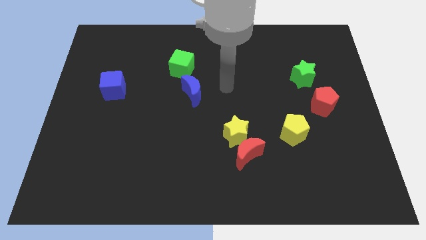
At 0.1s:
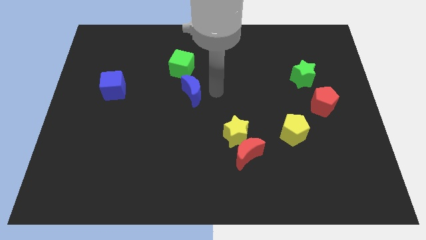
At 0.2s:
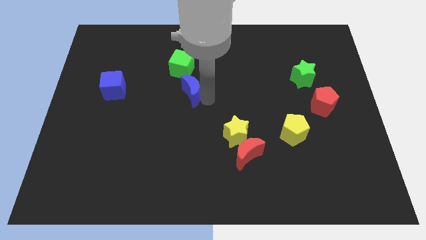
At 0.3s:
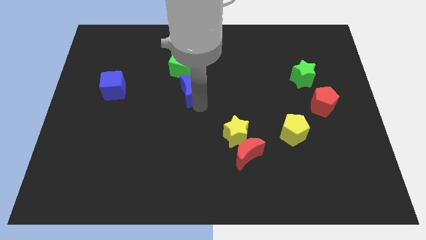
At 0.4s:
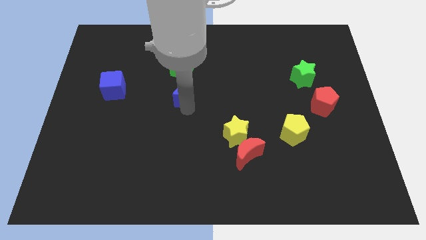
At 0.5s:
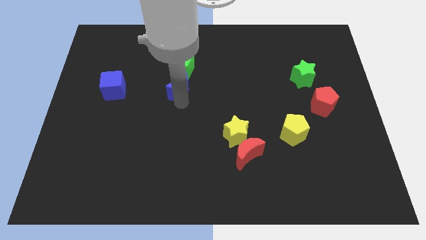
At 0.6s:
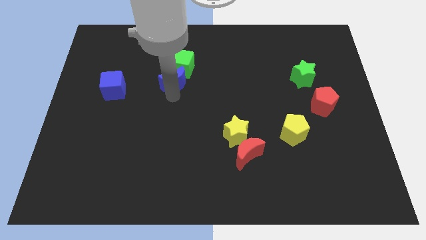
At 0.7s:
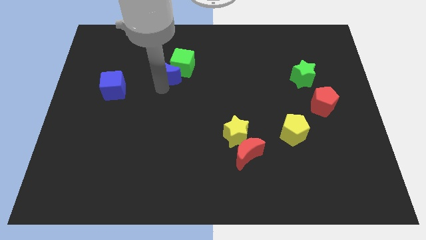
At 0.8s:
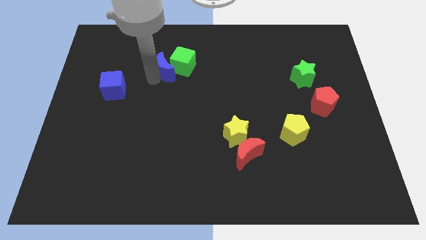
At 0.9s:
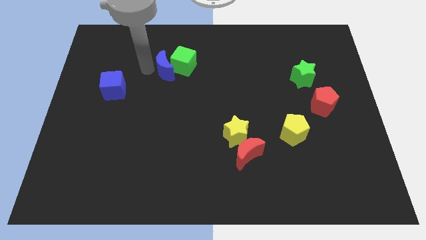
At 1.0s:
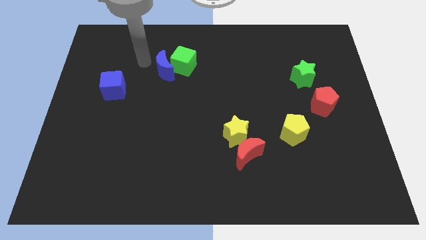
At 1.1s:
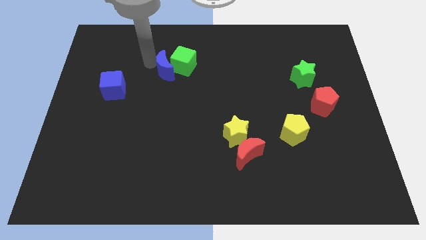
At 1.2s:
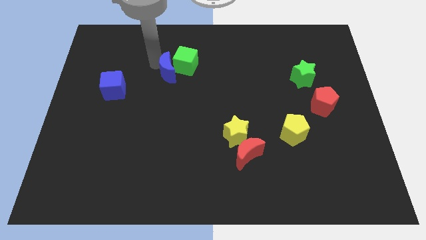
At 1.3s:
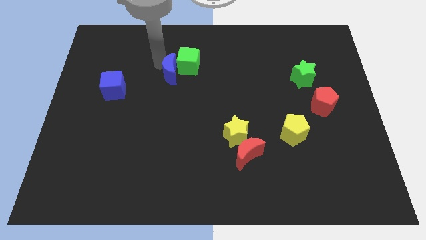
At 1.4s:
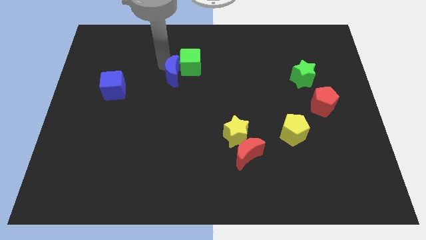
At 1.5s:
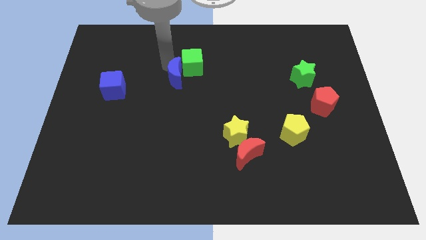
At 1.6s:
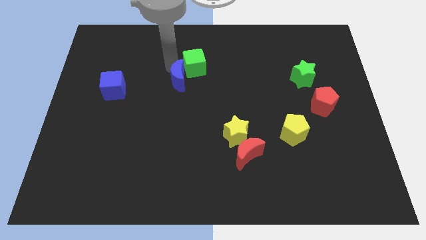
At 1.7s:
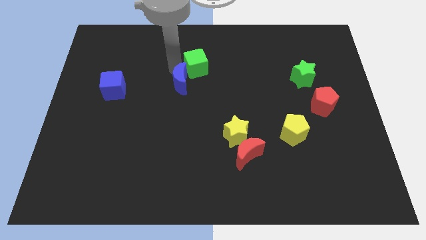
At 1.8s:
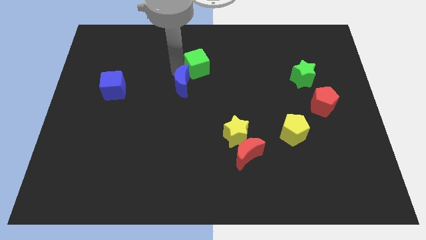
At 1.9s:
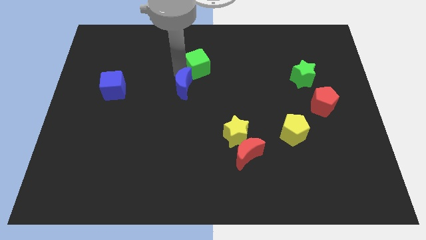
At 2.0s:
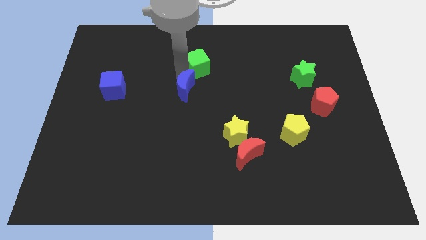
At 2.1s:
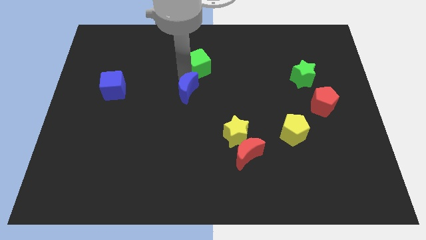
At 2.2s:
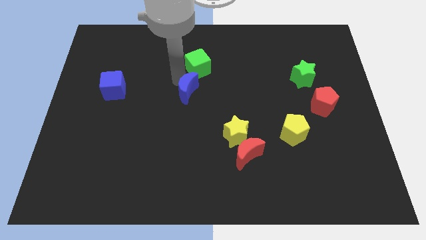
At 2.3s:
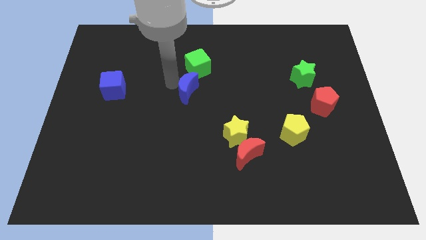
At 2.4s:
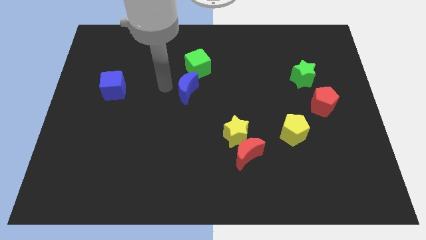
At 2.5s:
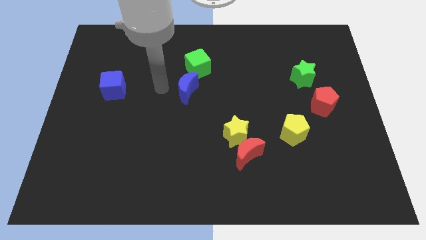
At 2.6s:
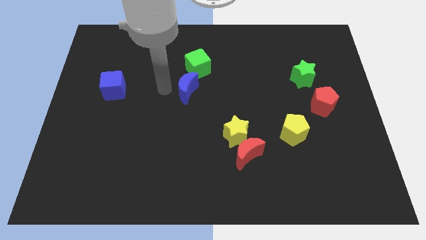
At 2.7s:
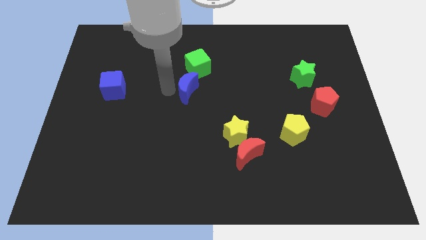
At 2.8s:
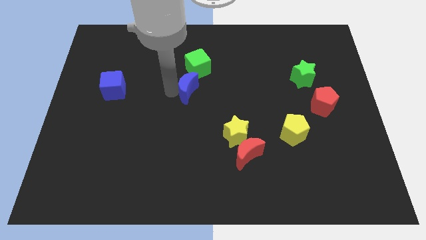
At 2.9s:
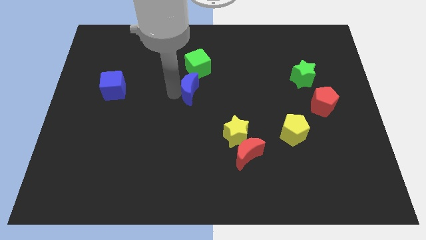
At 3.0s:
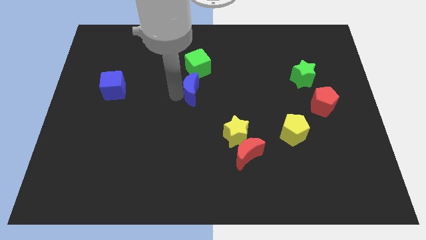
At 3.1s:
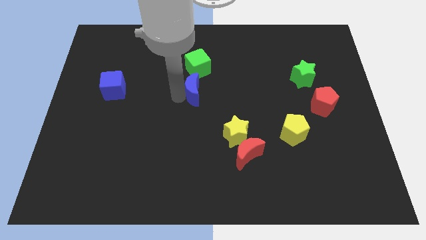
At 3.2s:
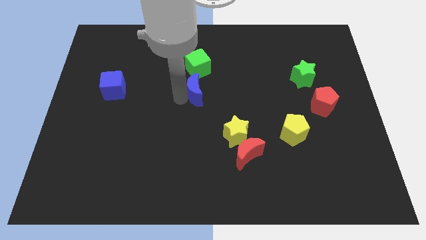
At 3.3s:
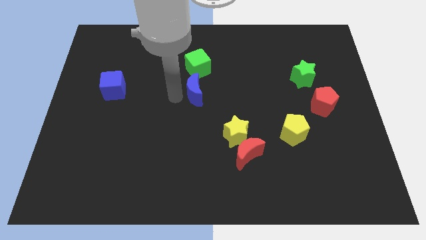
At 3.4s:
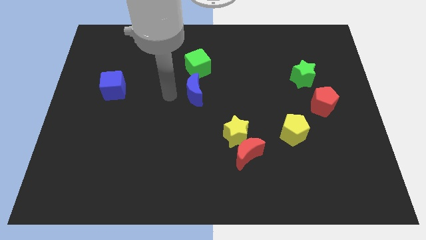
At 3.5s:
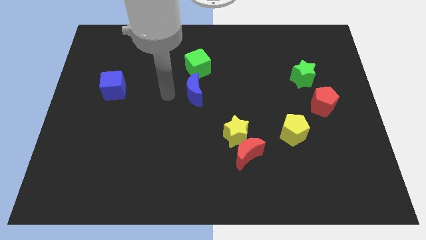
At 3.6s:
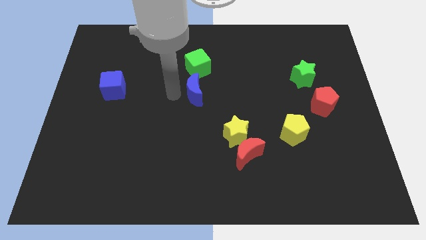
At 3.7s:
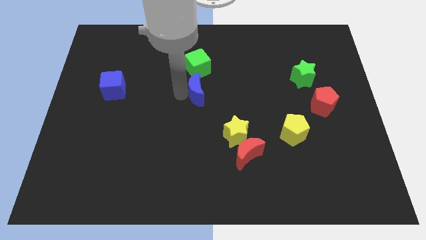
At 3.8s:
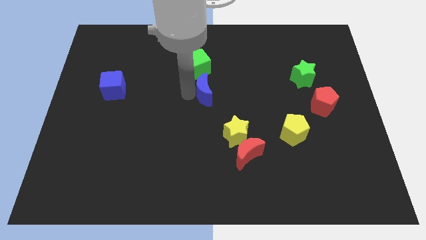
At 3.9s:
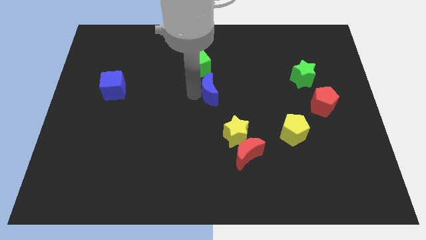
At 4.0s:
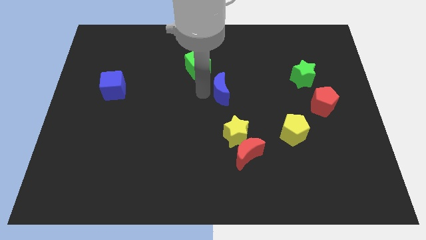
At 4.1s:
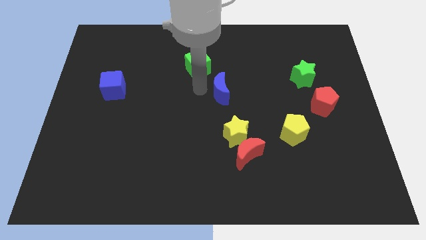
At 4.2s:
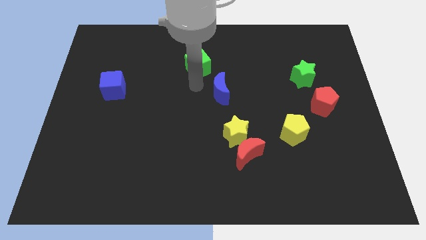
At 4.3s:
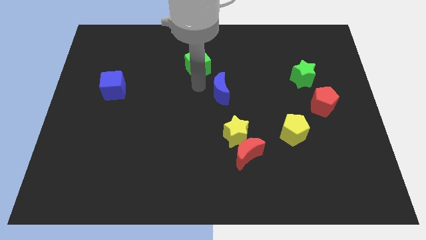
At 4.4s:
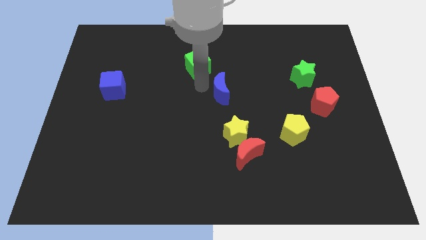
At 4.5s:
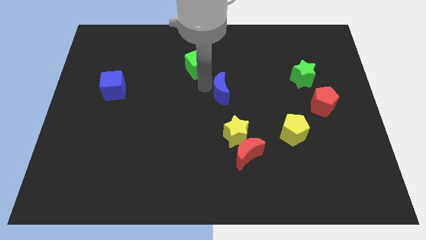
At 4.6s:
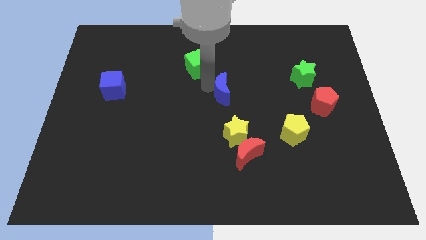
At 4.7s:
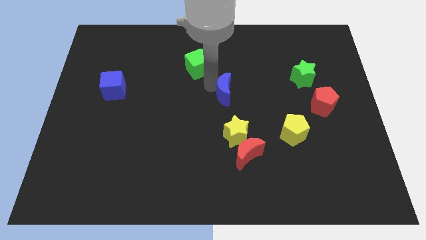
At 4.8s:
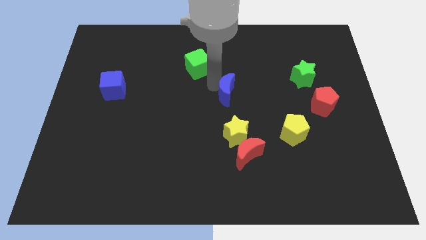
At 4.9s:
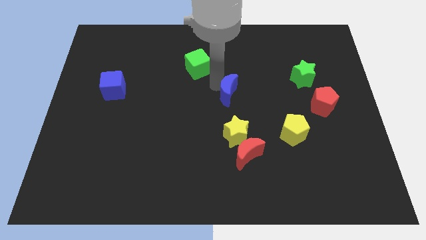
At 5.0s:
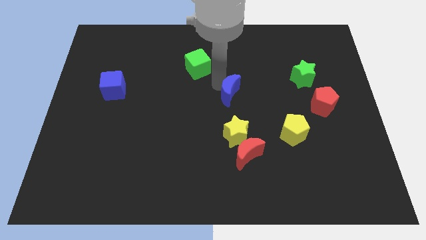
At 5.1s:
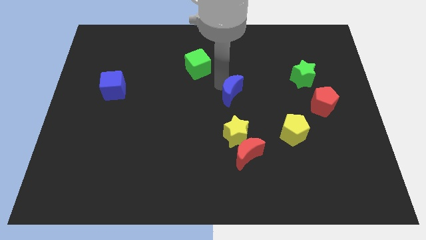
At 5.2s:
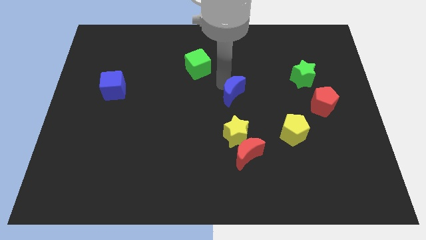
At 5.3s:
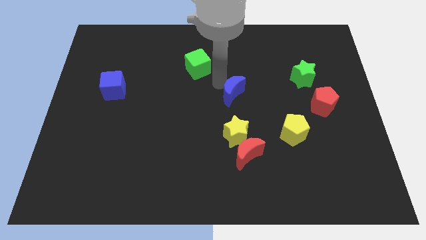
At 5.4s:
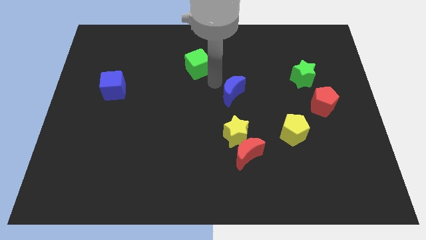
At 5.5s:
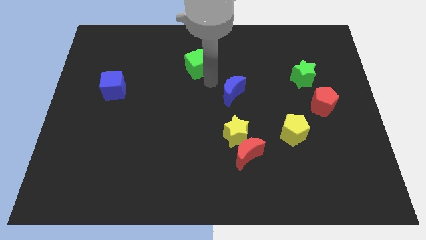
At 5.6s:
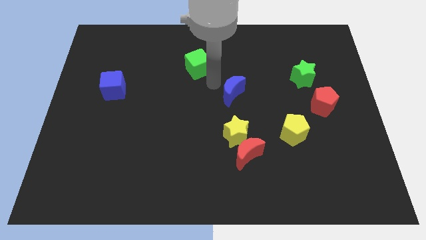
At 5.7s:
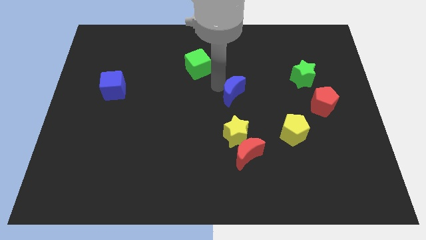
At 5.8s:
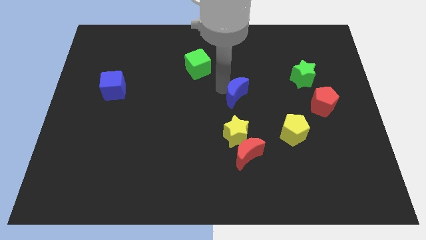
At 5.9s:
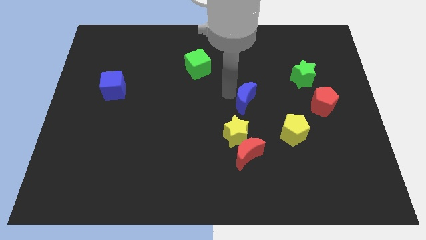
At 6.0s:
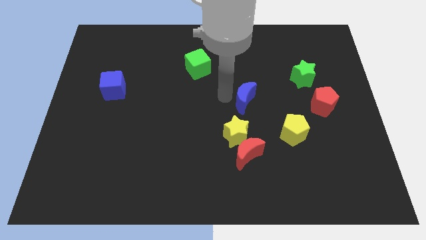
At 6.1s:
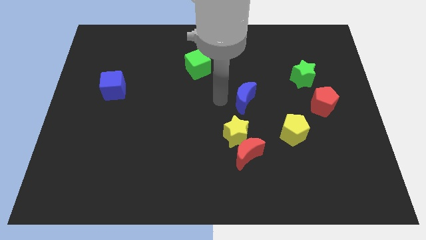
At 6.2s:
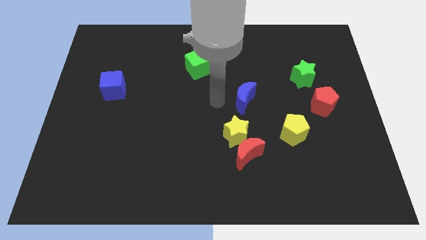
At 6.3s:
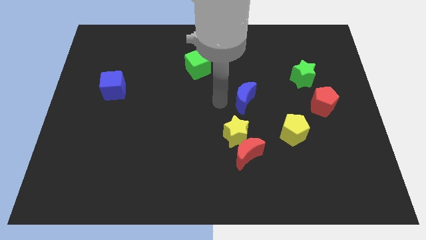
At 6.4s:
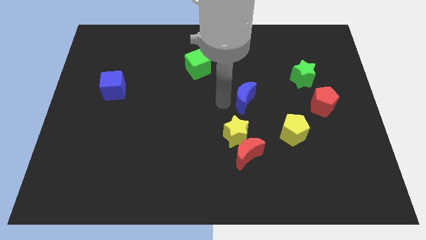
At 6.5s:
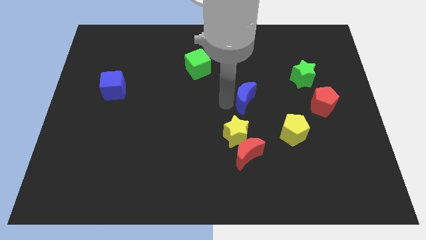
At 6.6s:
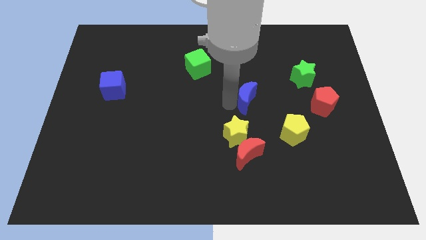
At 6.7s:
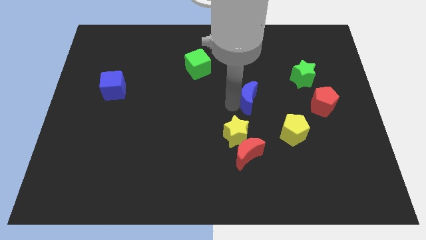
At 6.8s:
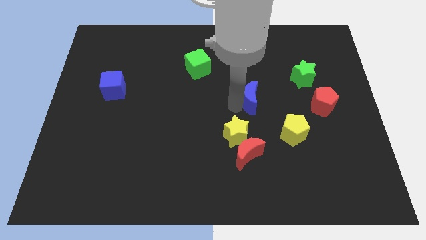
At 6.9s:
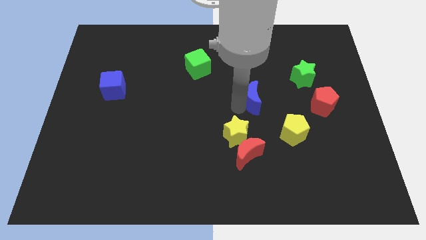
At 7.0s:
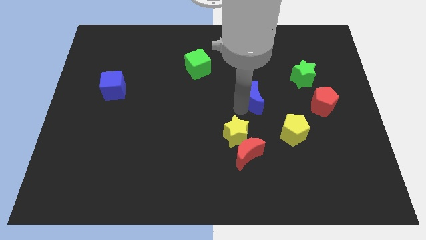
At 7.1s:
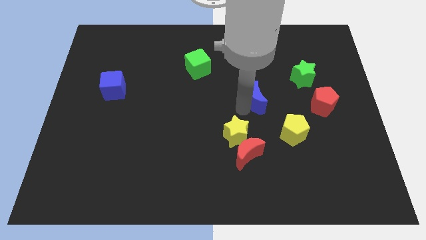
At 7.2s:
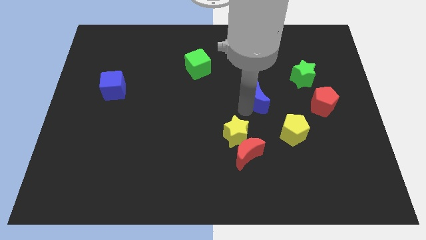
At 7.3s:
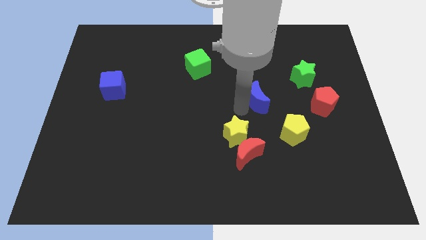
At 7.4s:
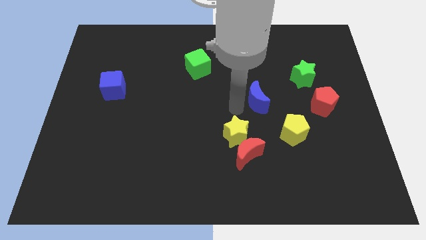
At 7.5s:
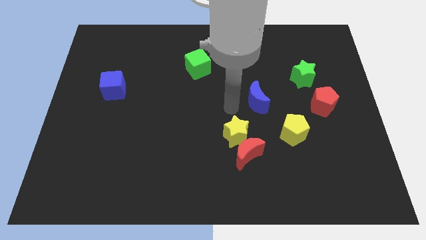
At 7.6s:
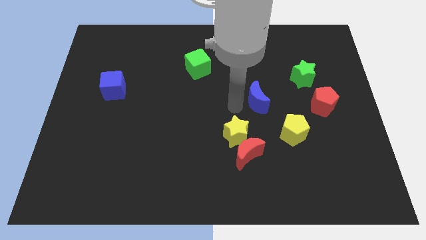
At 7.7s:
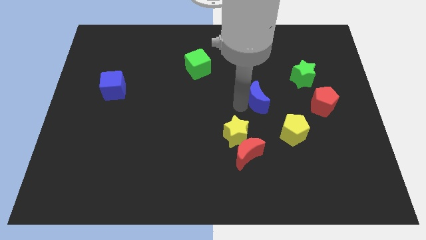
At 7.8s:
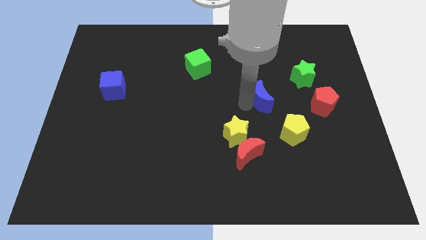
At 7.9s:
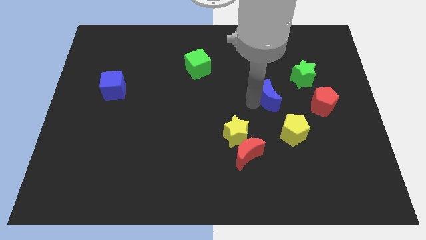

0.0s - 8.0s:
put the blue moon to the top side of the yellow pentagon
